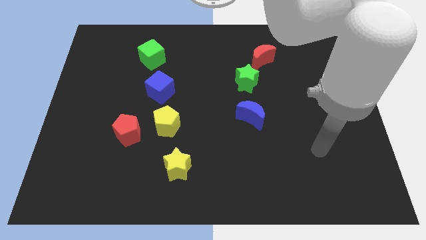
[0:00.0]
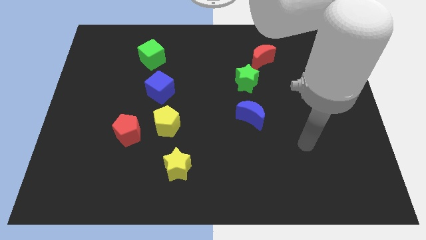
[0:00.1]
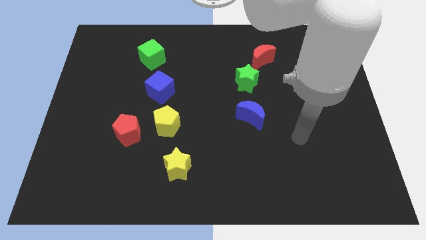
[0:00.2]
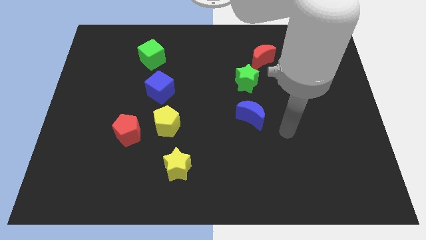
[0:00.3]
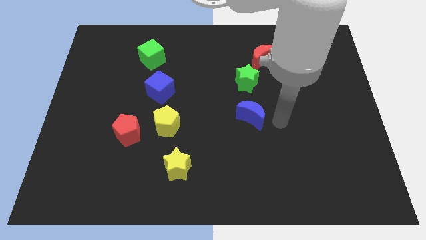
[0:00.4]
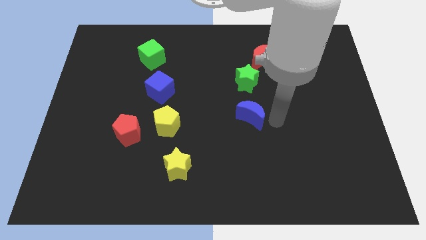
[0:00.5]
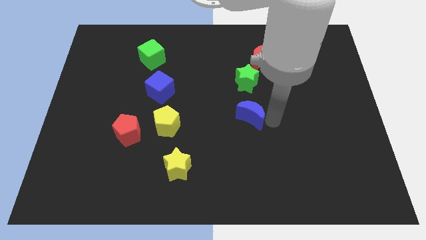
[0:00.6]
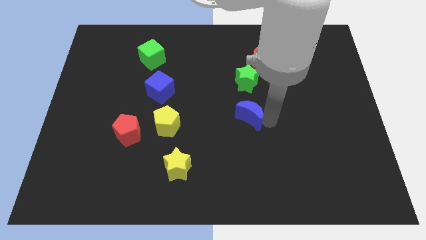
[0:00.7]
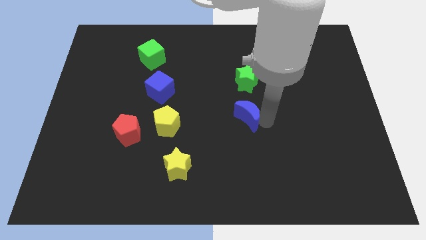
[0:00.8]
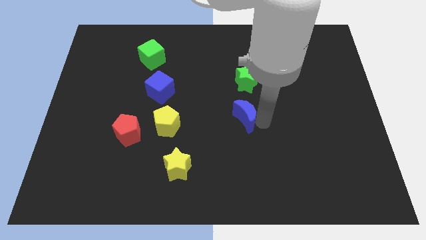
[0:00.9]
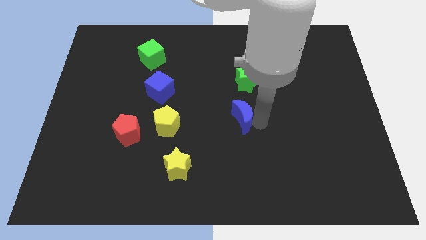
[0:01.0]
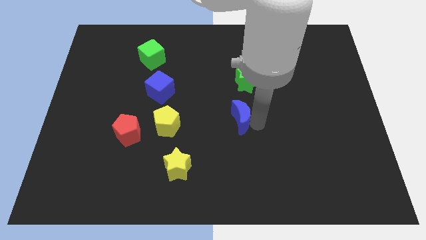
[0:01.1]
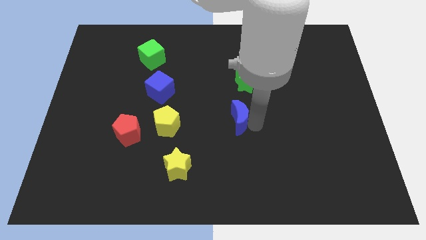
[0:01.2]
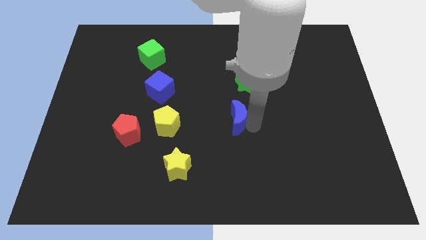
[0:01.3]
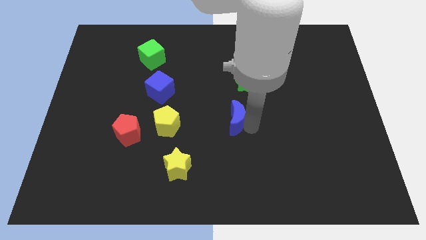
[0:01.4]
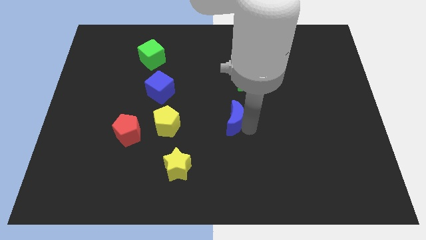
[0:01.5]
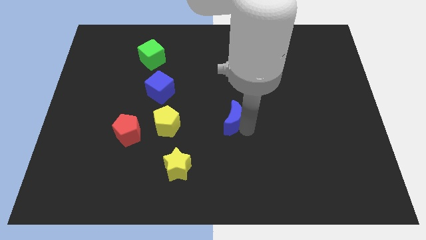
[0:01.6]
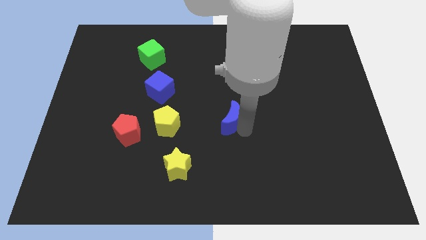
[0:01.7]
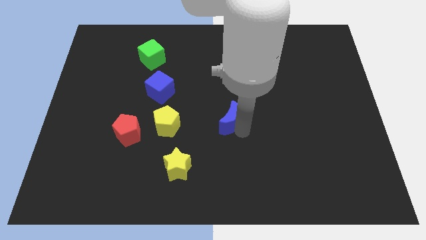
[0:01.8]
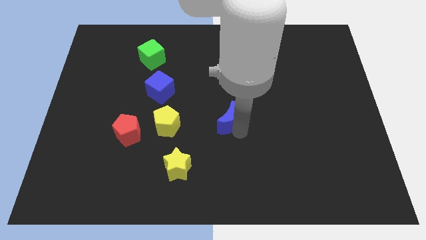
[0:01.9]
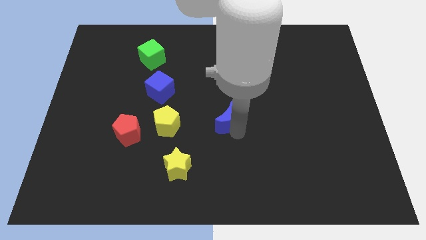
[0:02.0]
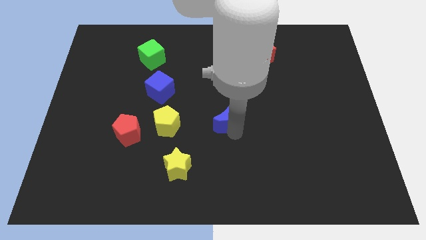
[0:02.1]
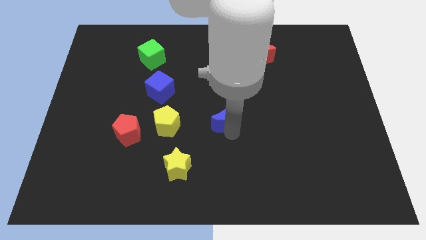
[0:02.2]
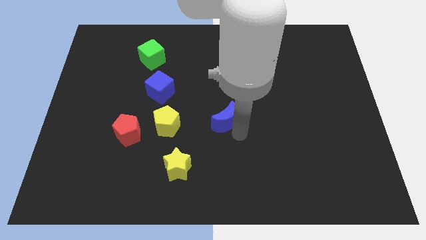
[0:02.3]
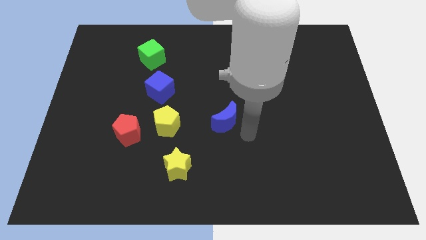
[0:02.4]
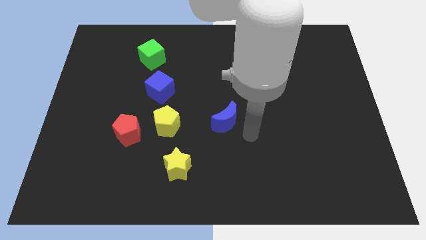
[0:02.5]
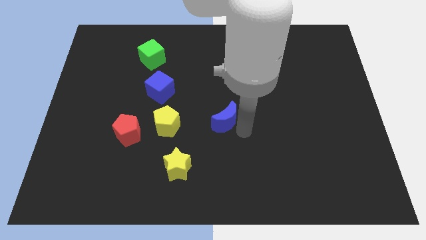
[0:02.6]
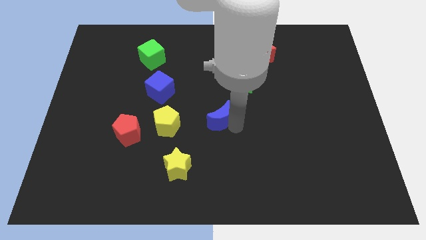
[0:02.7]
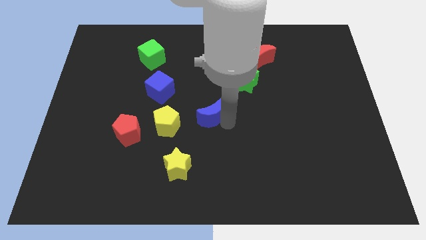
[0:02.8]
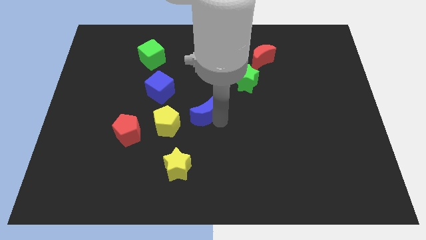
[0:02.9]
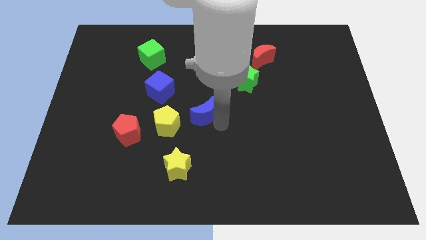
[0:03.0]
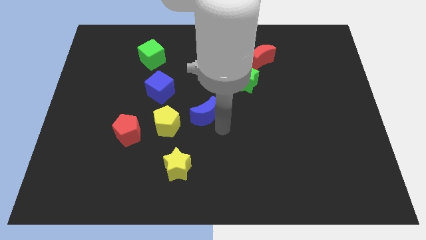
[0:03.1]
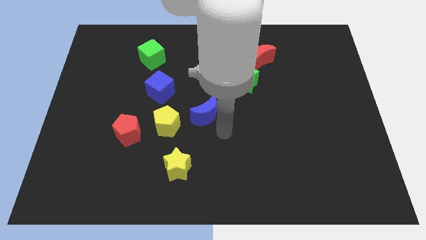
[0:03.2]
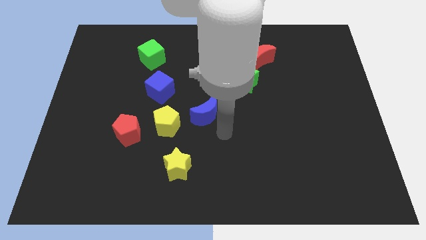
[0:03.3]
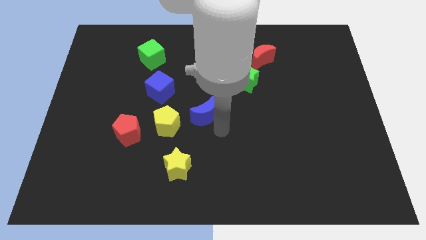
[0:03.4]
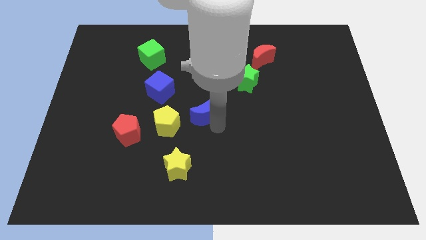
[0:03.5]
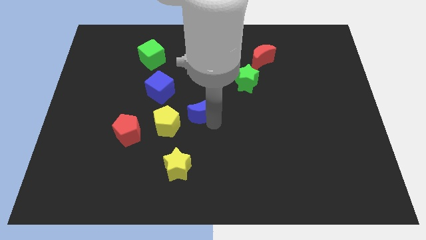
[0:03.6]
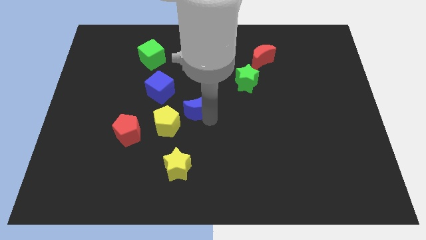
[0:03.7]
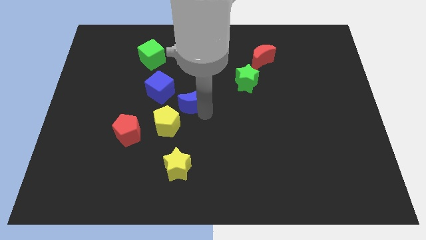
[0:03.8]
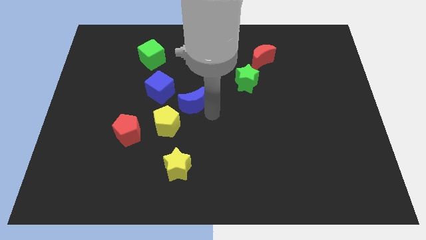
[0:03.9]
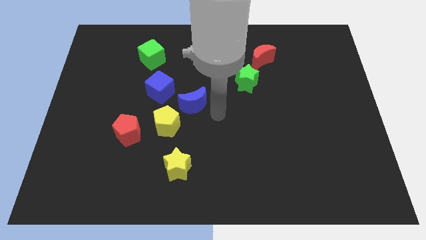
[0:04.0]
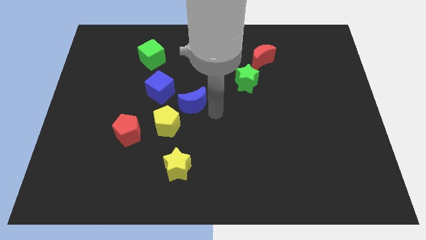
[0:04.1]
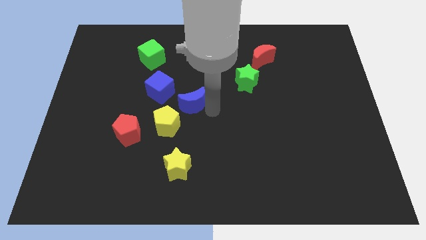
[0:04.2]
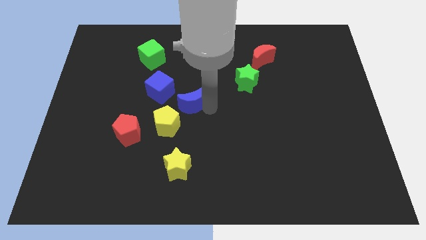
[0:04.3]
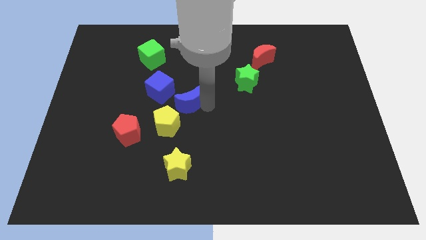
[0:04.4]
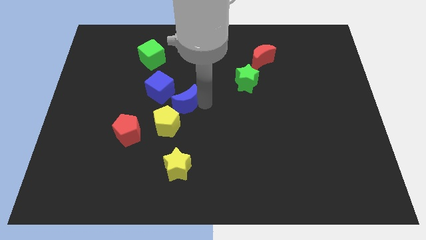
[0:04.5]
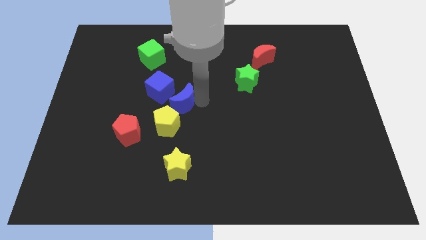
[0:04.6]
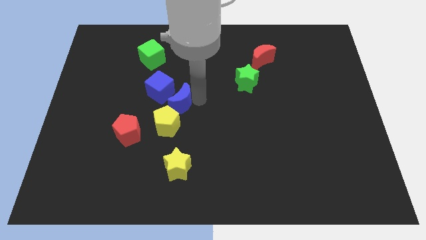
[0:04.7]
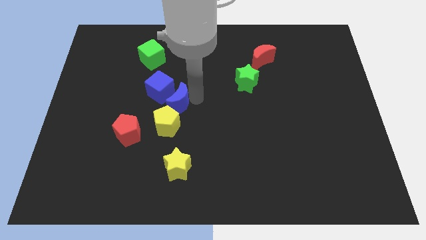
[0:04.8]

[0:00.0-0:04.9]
put the blue moon towards the blue cube

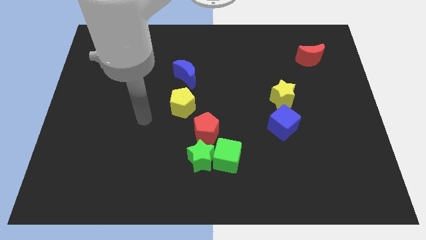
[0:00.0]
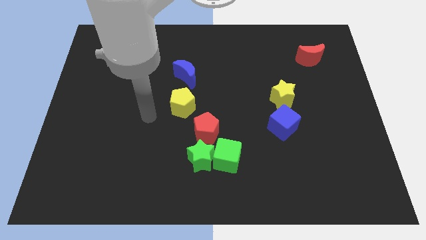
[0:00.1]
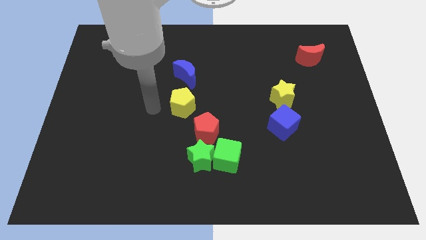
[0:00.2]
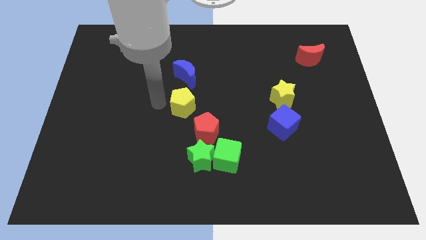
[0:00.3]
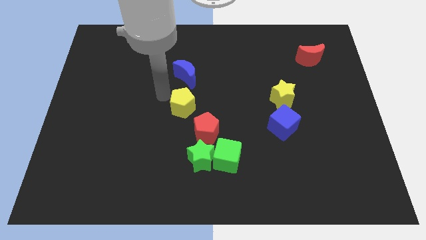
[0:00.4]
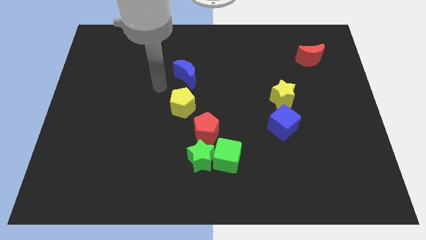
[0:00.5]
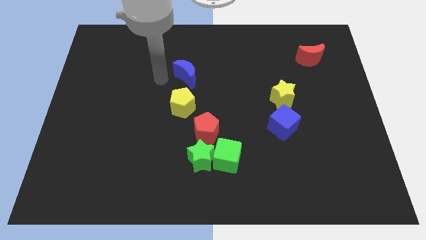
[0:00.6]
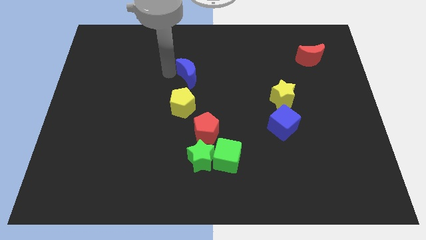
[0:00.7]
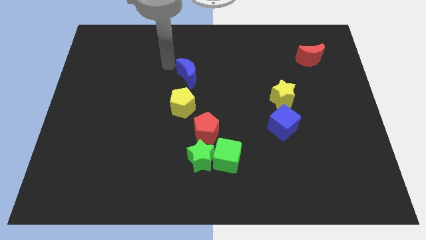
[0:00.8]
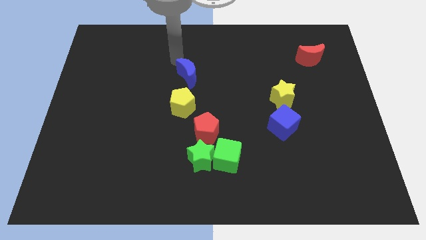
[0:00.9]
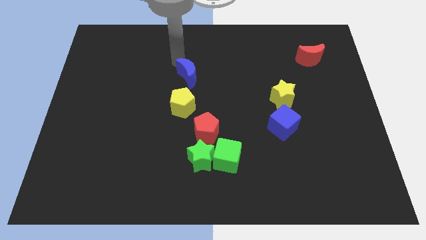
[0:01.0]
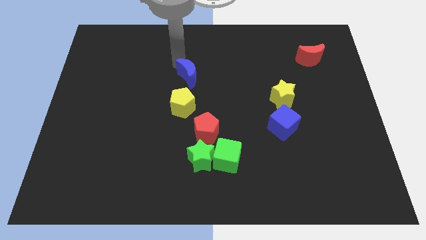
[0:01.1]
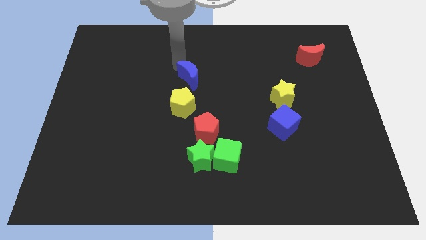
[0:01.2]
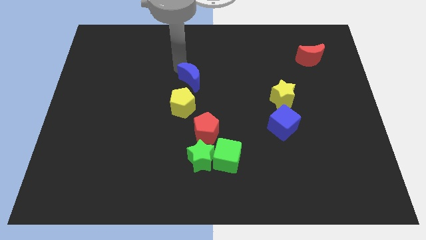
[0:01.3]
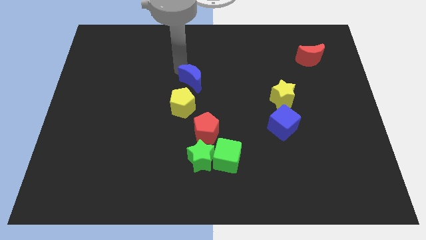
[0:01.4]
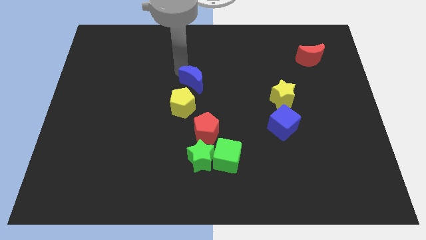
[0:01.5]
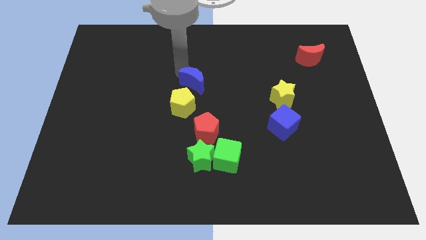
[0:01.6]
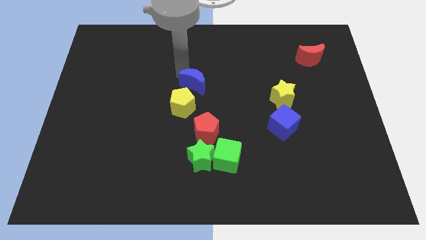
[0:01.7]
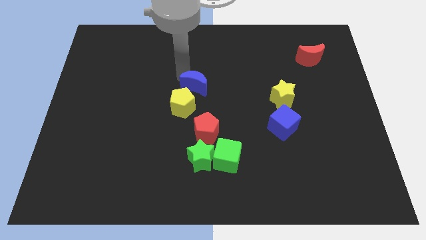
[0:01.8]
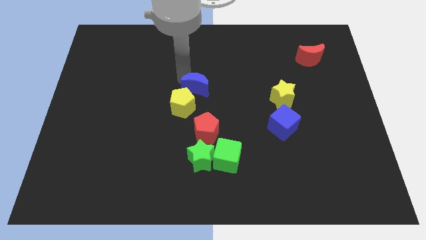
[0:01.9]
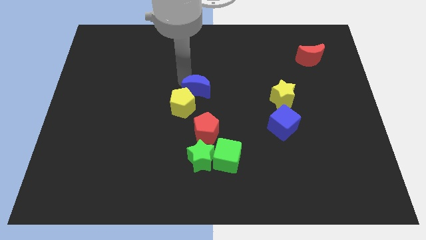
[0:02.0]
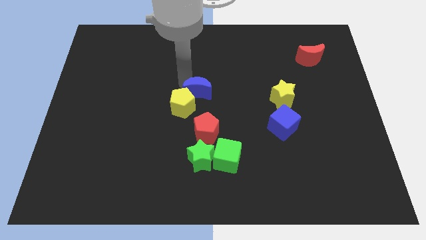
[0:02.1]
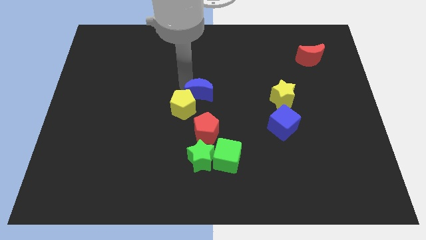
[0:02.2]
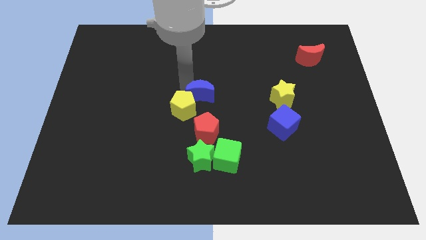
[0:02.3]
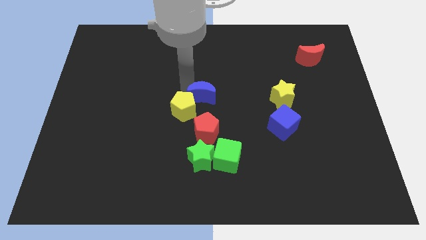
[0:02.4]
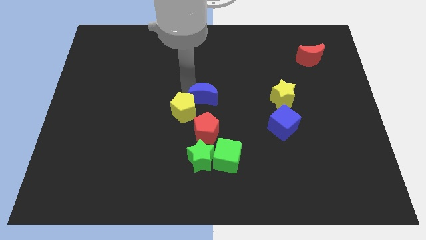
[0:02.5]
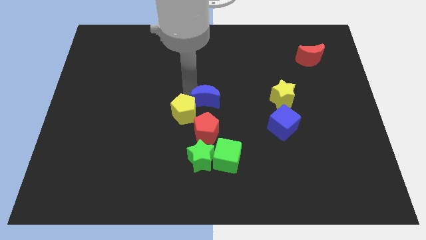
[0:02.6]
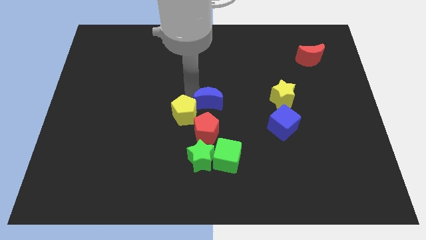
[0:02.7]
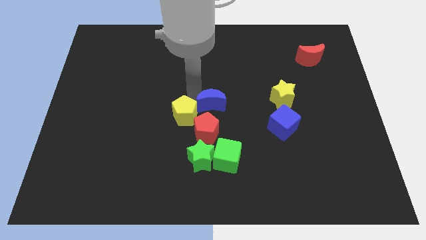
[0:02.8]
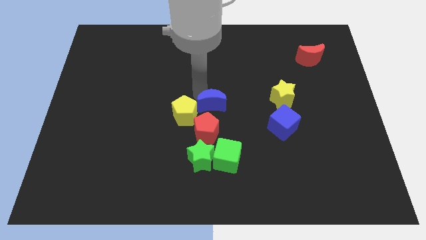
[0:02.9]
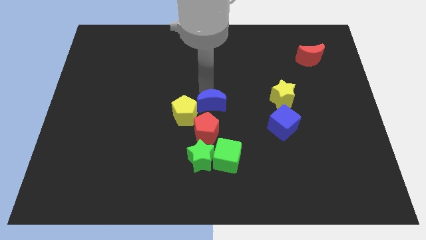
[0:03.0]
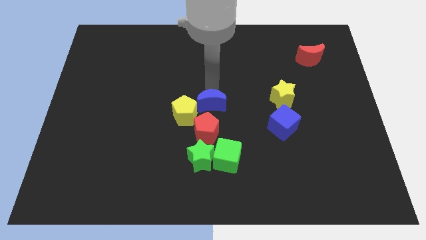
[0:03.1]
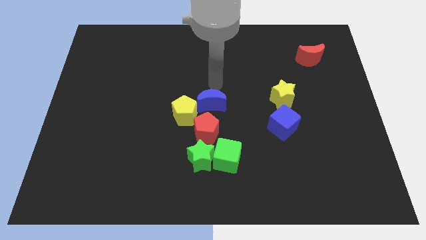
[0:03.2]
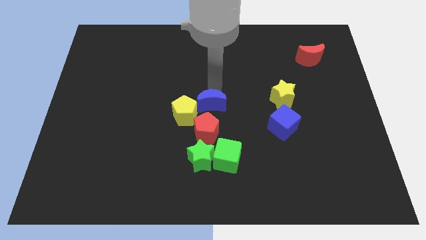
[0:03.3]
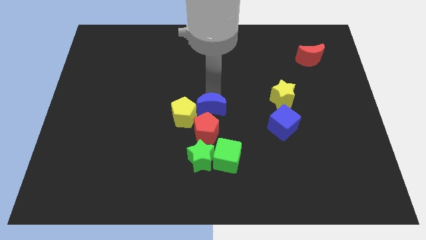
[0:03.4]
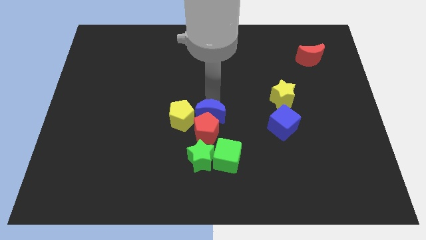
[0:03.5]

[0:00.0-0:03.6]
slide the blue moon close to the red pentagon
